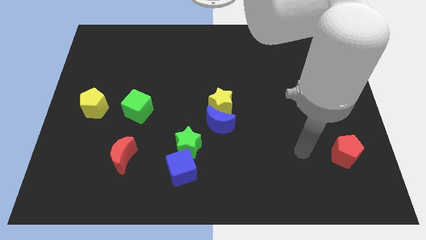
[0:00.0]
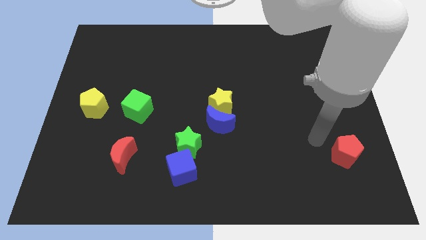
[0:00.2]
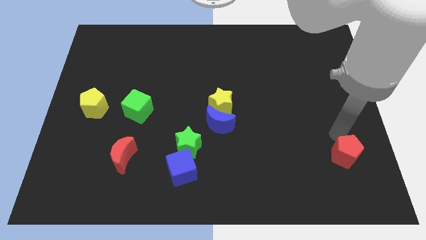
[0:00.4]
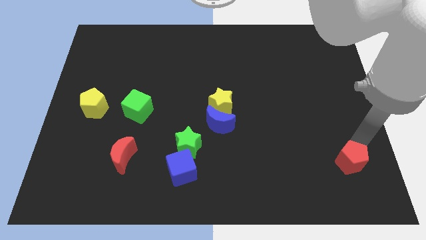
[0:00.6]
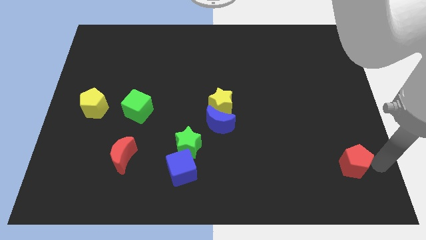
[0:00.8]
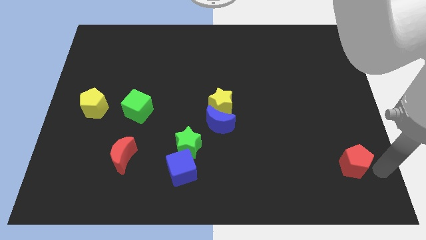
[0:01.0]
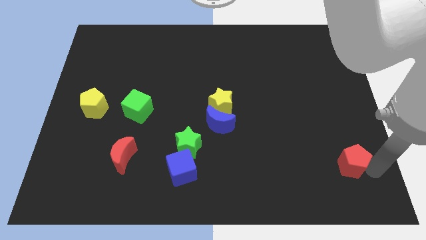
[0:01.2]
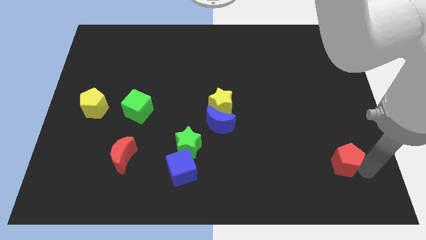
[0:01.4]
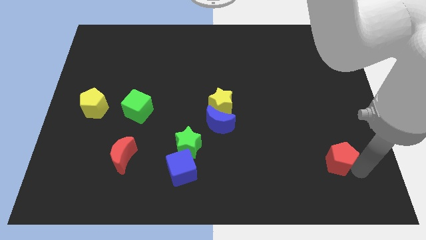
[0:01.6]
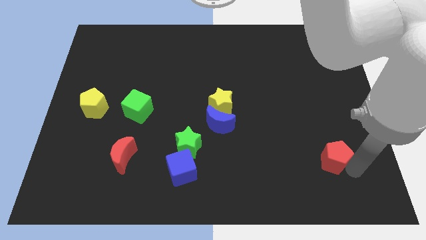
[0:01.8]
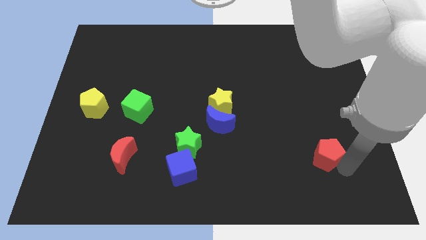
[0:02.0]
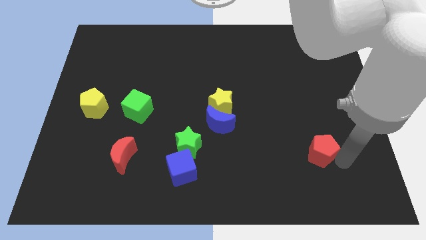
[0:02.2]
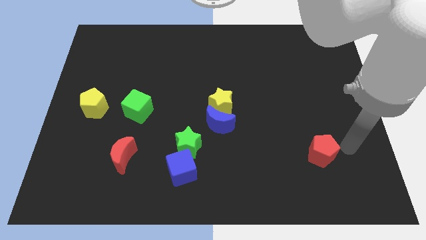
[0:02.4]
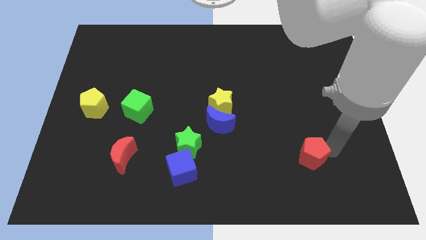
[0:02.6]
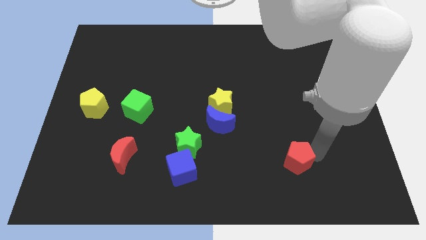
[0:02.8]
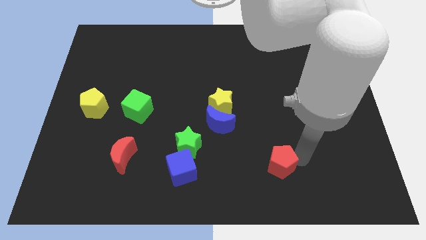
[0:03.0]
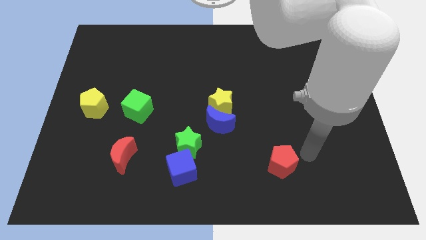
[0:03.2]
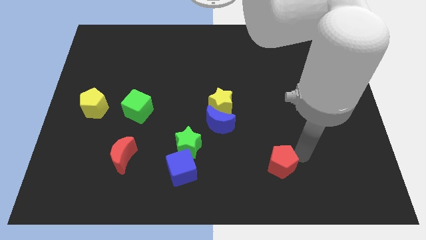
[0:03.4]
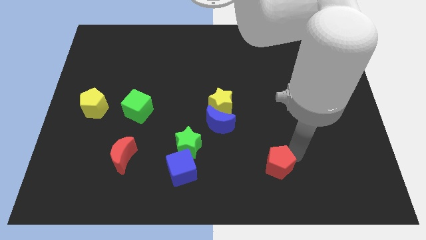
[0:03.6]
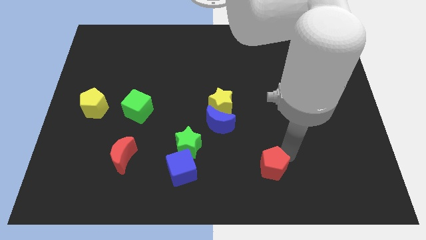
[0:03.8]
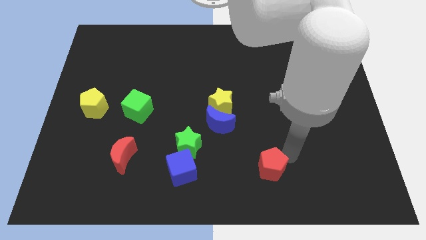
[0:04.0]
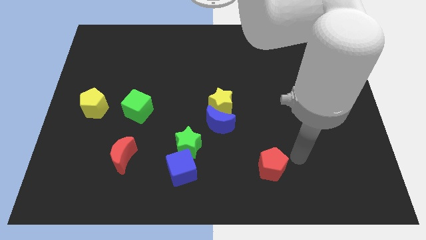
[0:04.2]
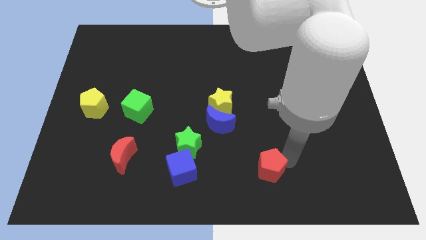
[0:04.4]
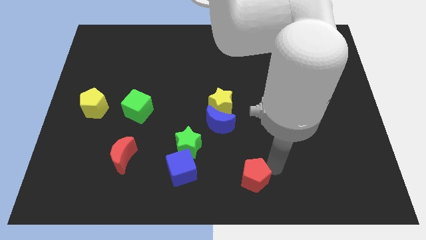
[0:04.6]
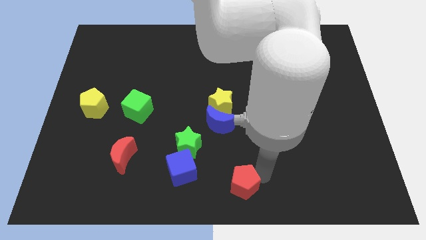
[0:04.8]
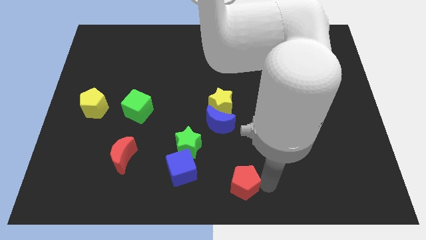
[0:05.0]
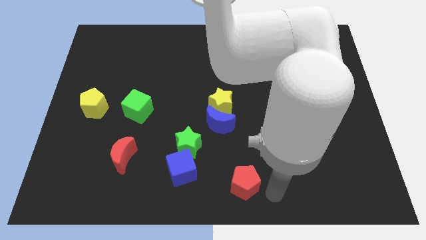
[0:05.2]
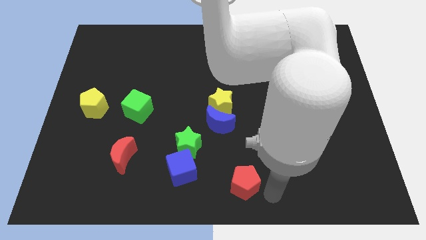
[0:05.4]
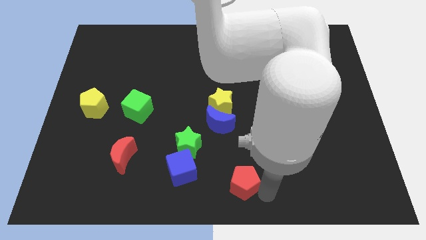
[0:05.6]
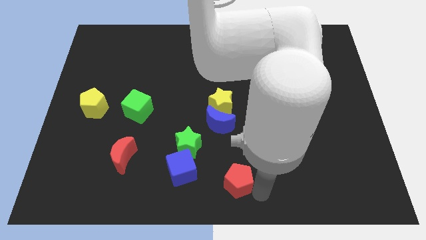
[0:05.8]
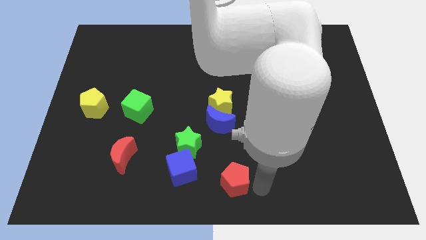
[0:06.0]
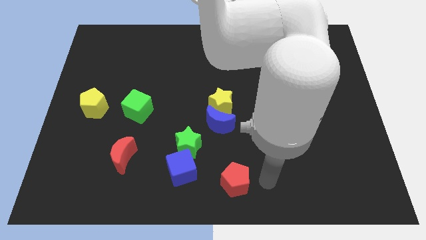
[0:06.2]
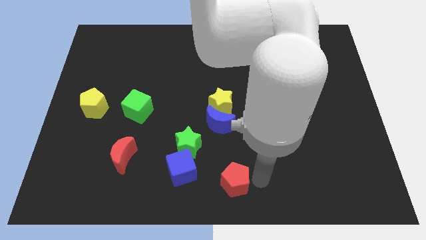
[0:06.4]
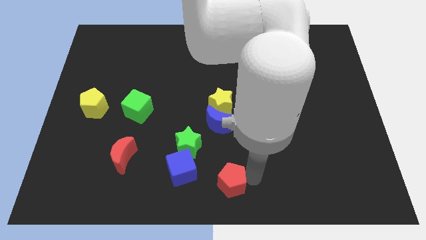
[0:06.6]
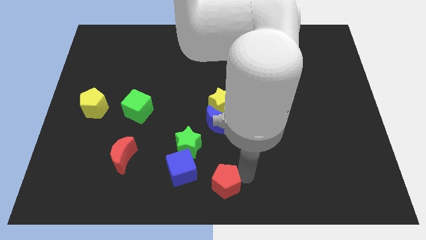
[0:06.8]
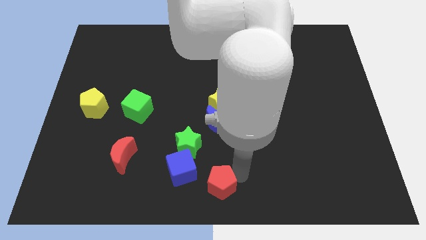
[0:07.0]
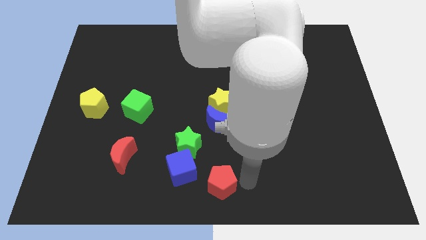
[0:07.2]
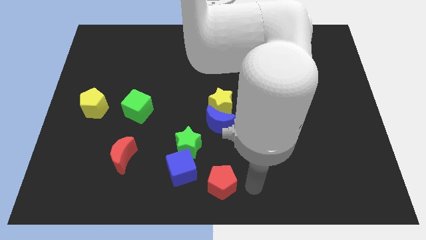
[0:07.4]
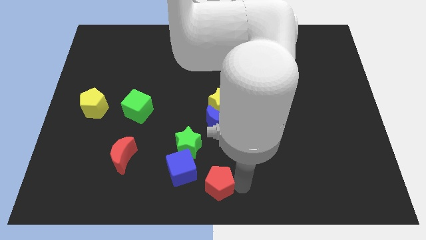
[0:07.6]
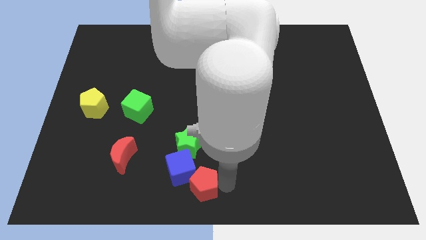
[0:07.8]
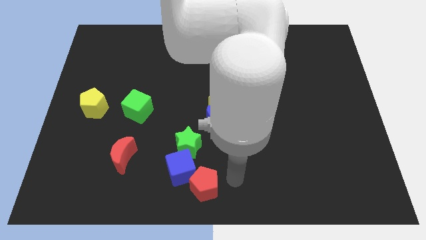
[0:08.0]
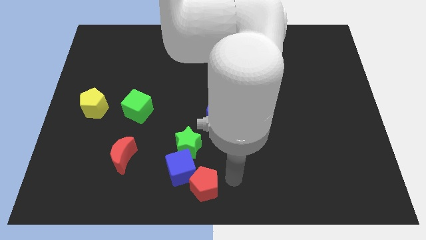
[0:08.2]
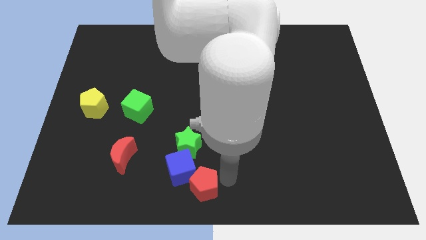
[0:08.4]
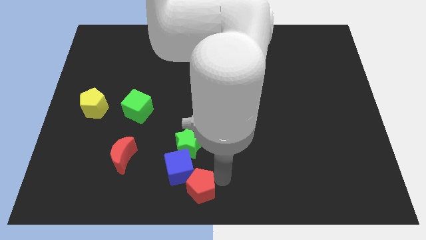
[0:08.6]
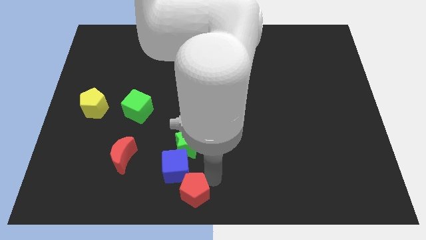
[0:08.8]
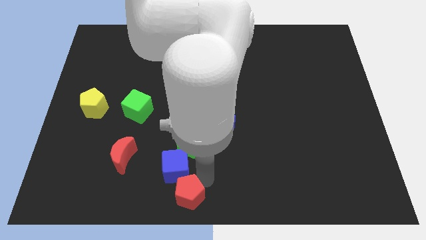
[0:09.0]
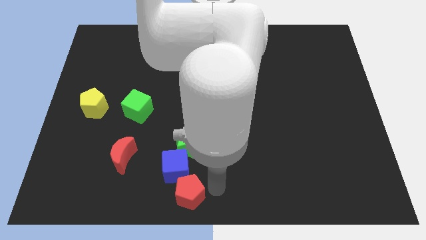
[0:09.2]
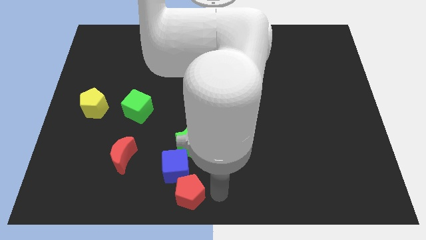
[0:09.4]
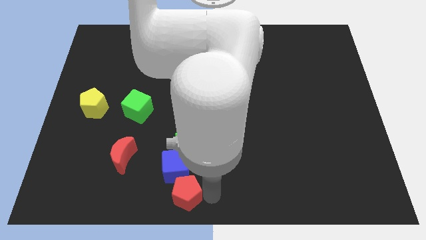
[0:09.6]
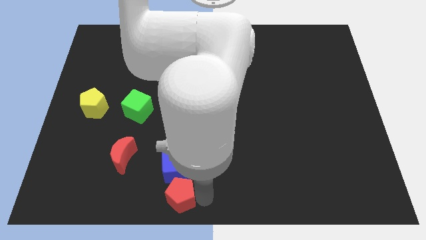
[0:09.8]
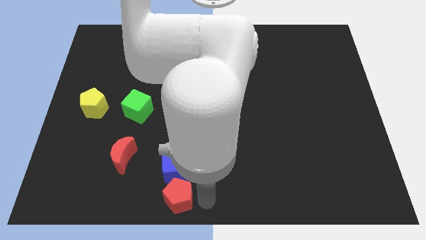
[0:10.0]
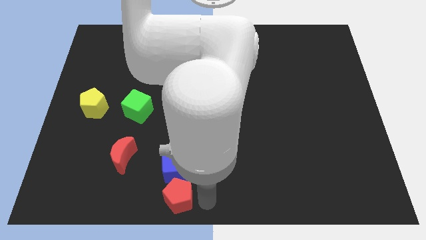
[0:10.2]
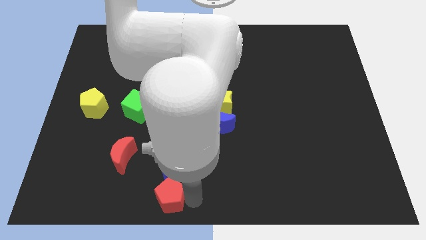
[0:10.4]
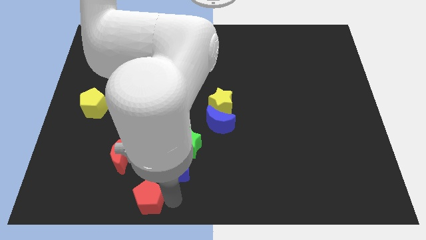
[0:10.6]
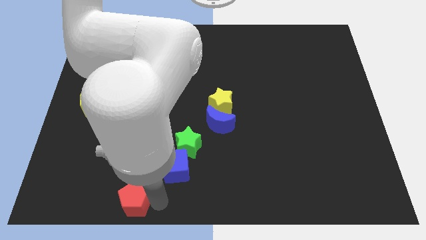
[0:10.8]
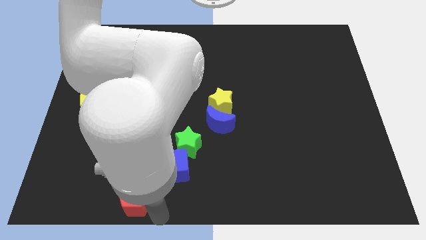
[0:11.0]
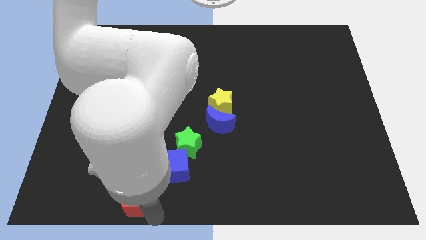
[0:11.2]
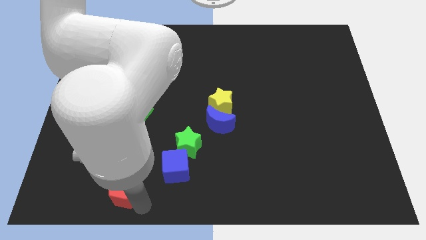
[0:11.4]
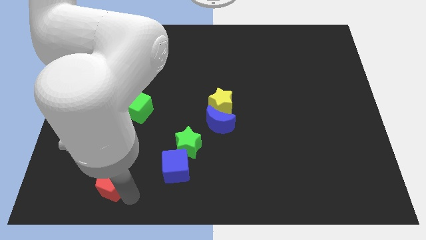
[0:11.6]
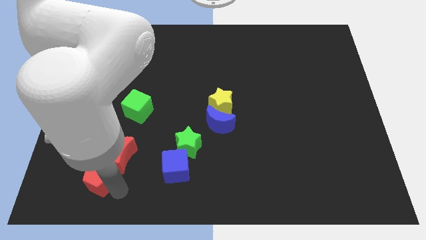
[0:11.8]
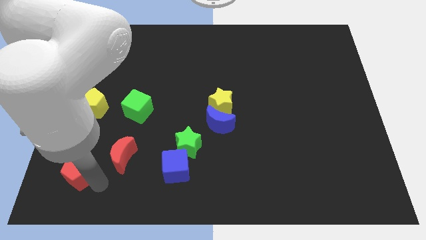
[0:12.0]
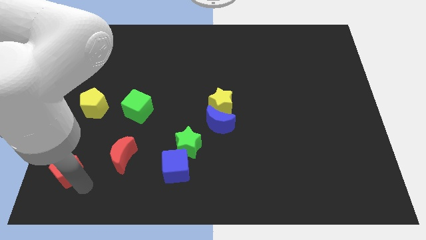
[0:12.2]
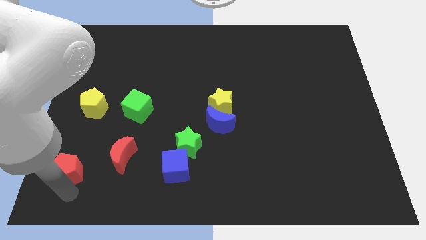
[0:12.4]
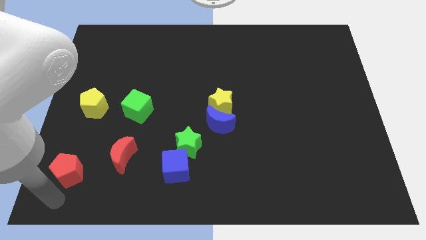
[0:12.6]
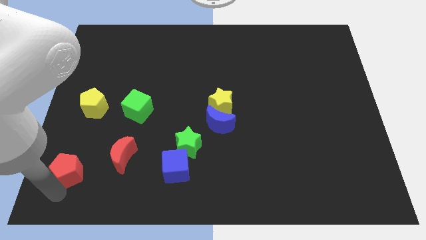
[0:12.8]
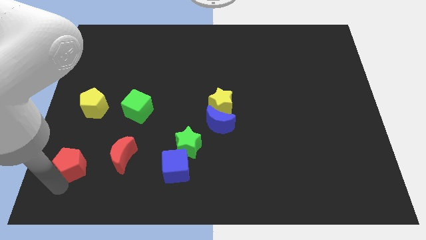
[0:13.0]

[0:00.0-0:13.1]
slide the red pentagon below the yellow pentagon

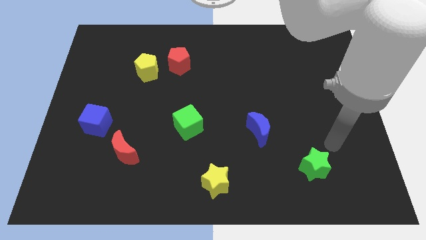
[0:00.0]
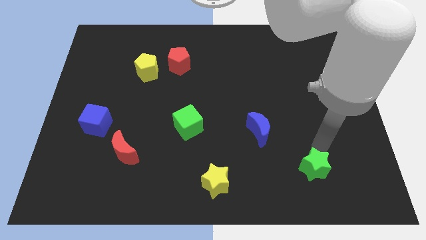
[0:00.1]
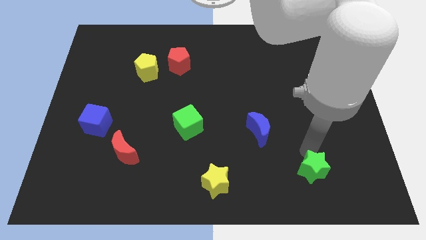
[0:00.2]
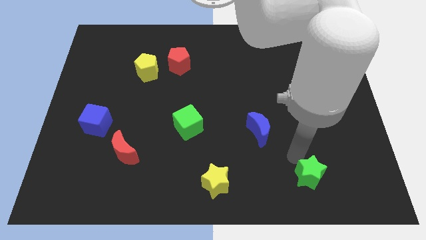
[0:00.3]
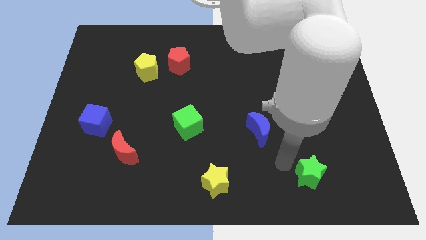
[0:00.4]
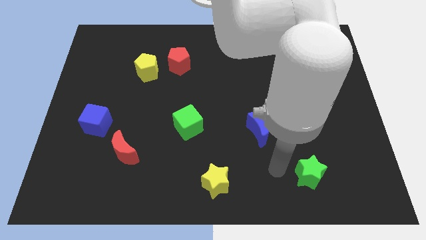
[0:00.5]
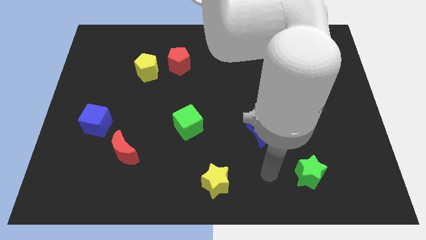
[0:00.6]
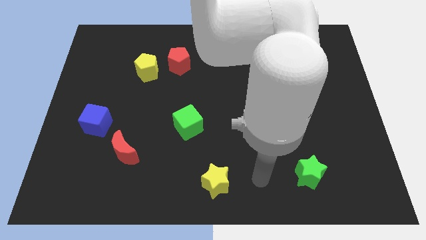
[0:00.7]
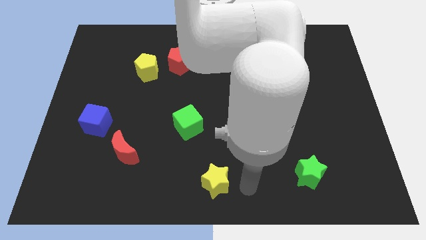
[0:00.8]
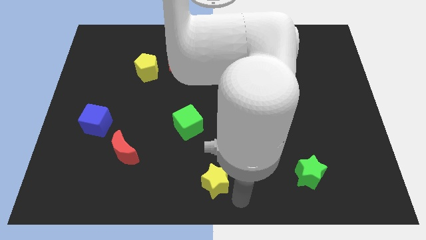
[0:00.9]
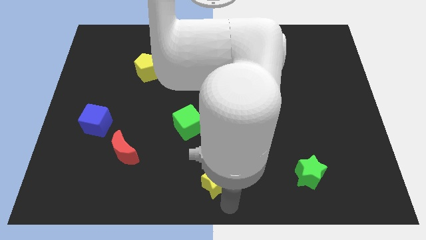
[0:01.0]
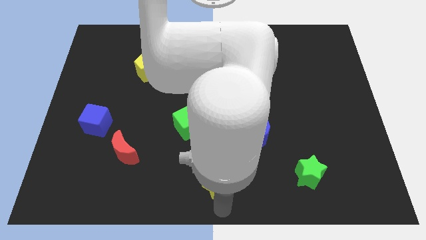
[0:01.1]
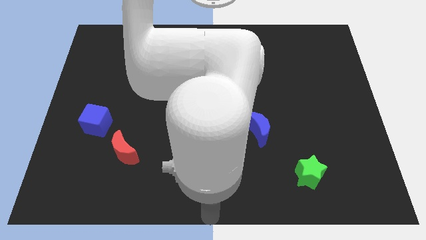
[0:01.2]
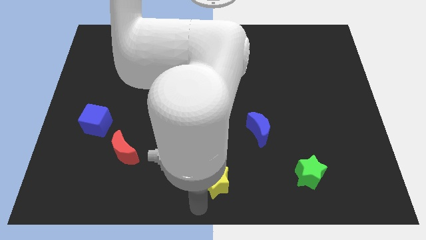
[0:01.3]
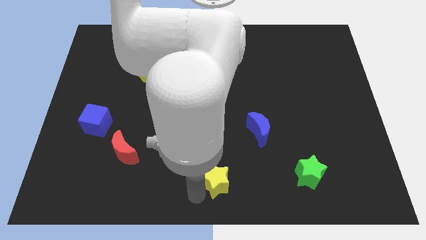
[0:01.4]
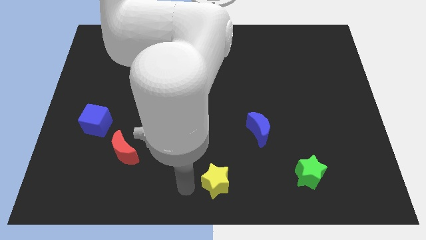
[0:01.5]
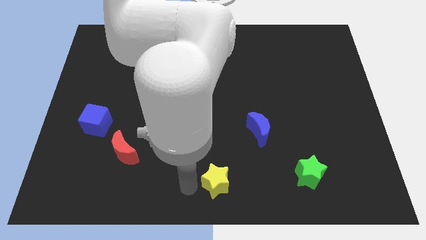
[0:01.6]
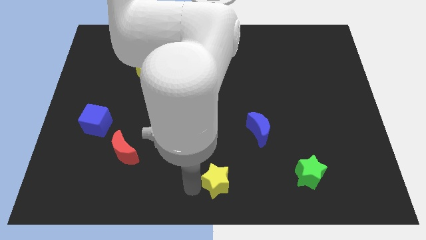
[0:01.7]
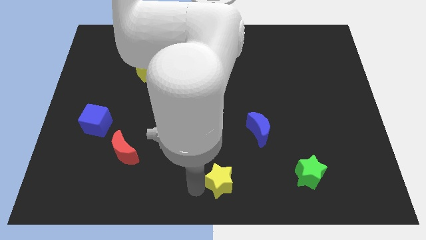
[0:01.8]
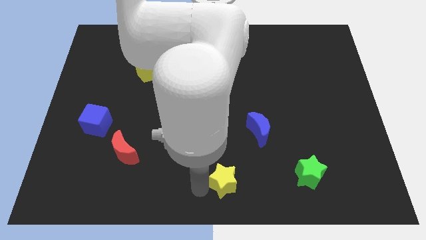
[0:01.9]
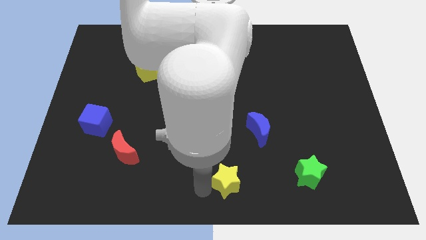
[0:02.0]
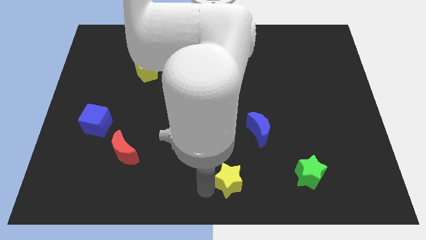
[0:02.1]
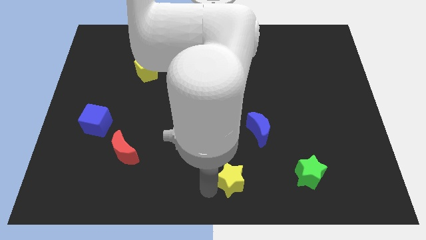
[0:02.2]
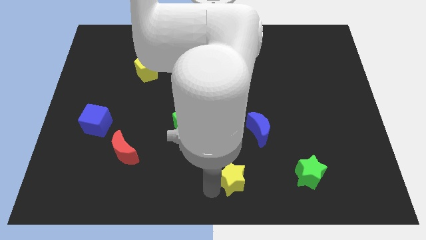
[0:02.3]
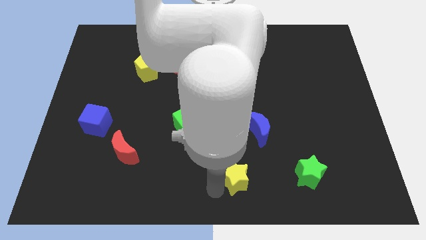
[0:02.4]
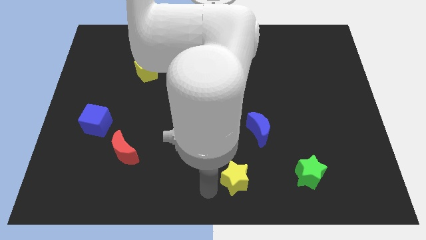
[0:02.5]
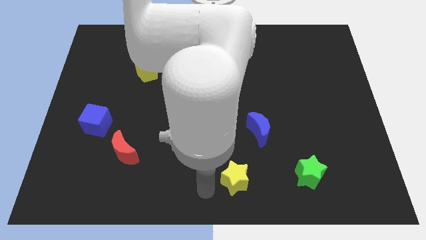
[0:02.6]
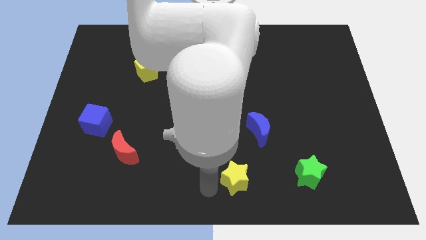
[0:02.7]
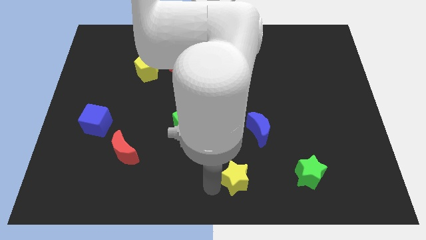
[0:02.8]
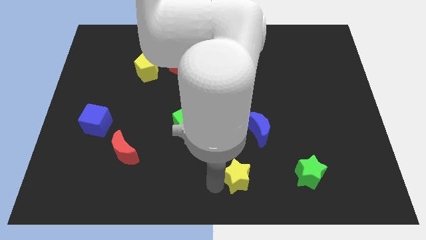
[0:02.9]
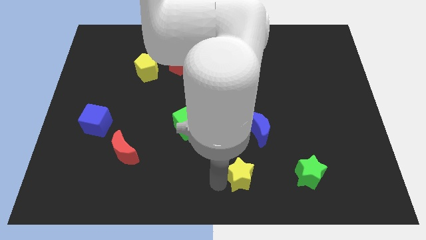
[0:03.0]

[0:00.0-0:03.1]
move the yellow star below the blue moon
